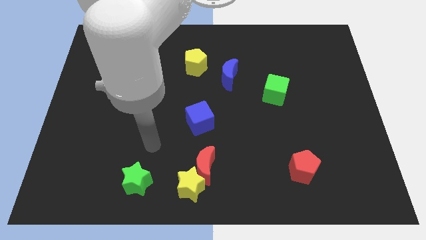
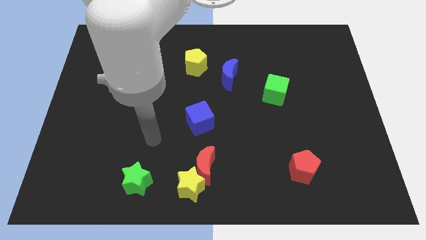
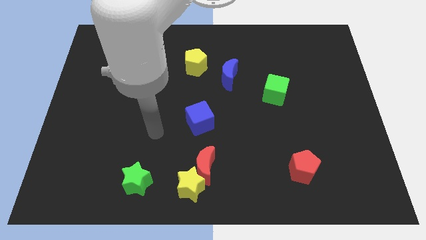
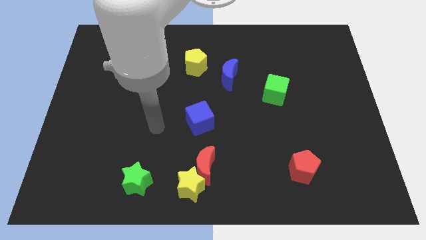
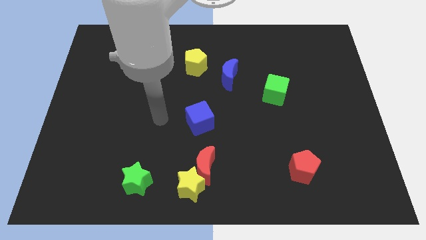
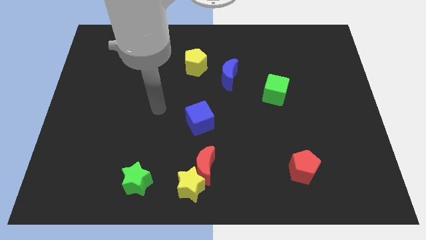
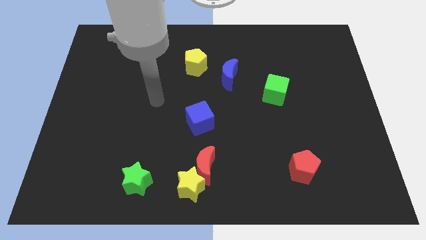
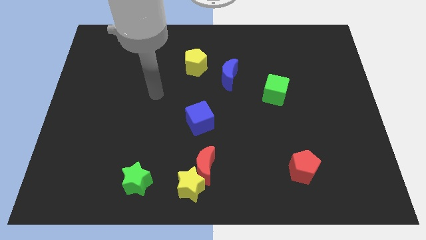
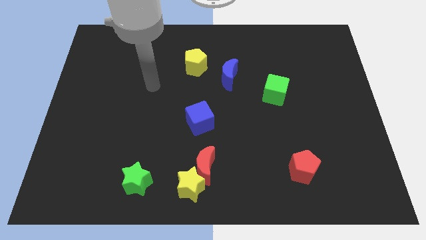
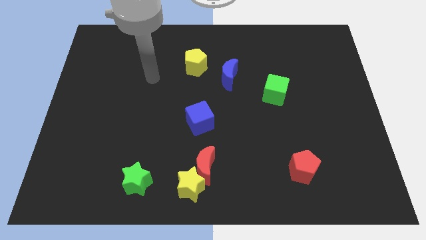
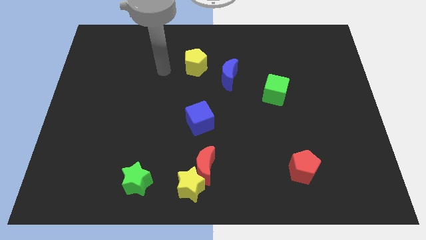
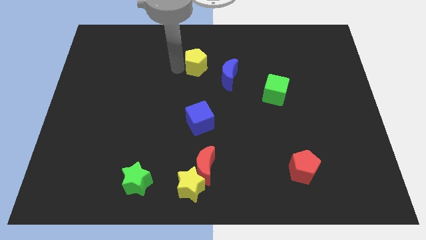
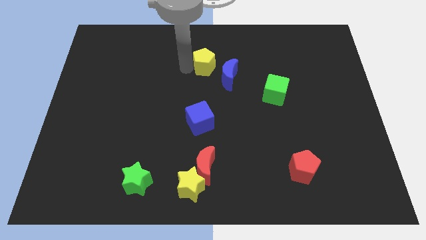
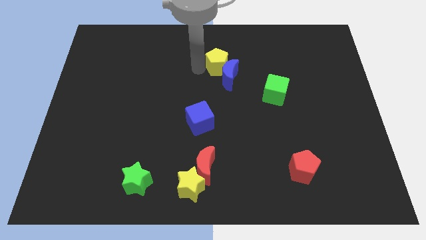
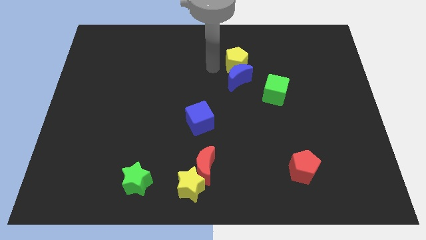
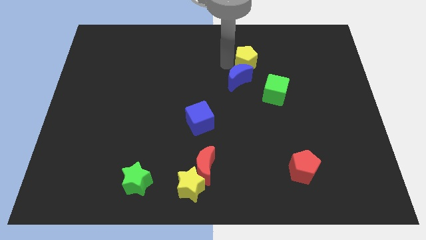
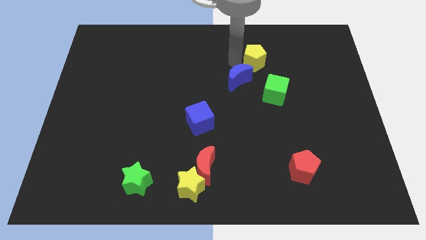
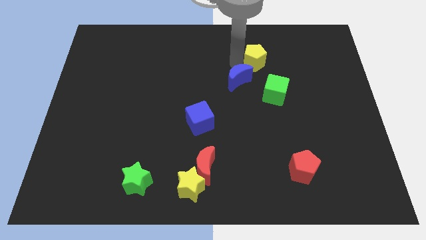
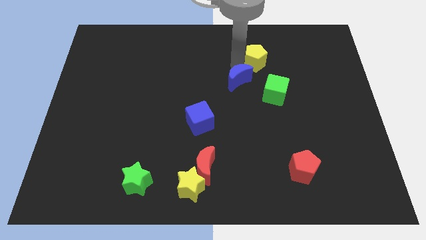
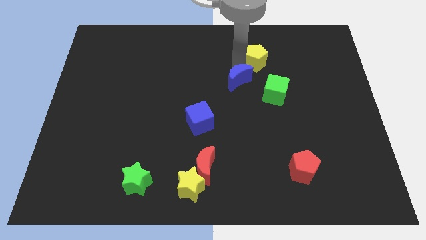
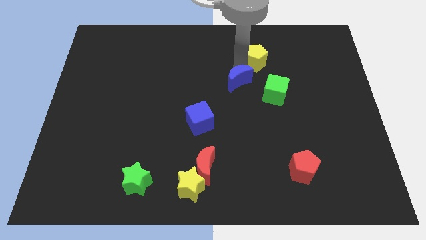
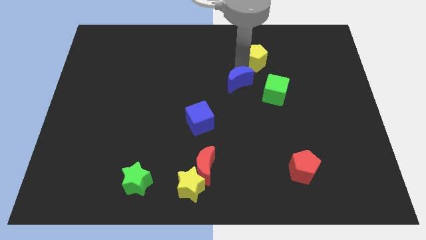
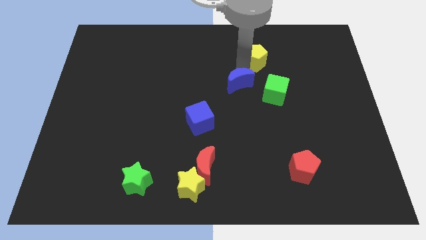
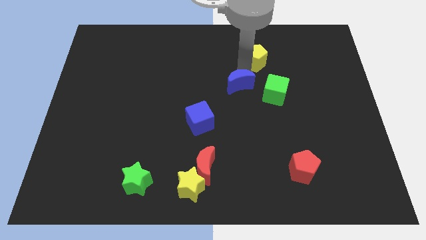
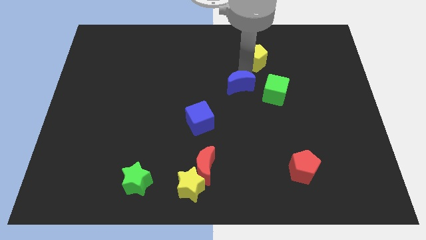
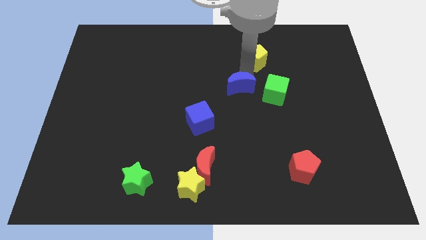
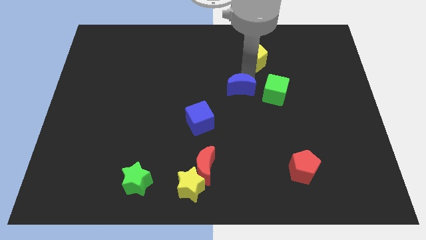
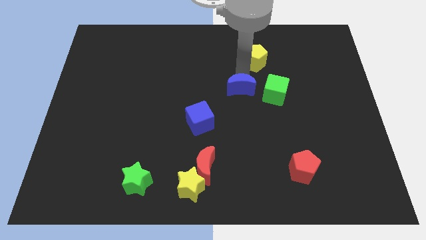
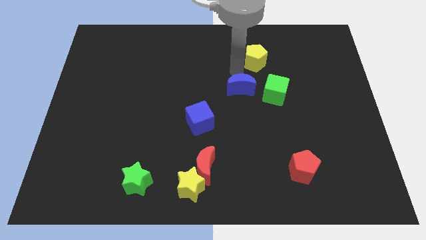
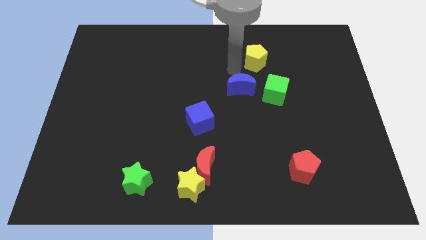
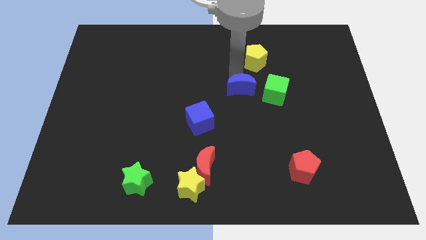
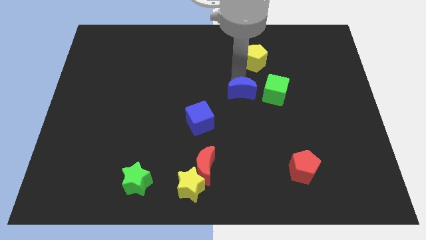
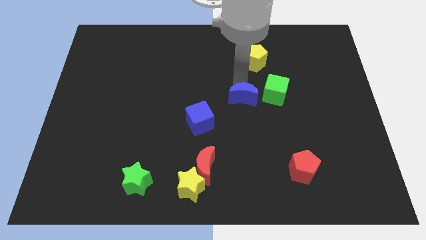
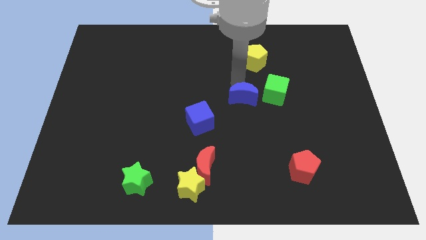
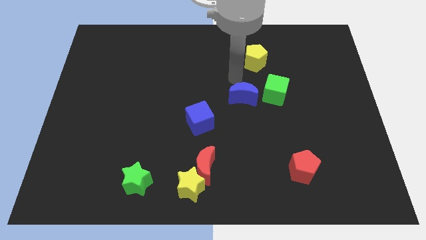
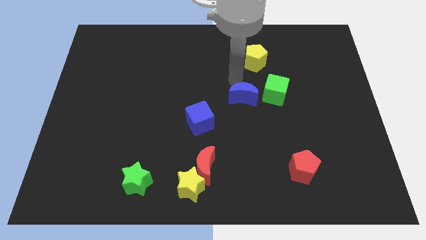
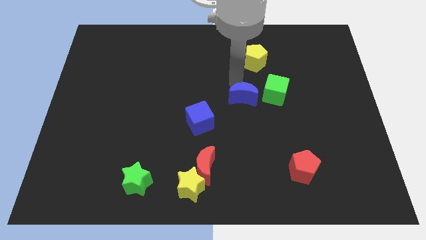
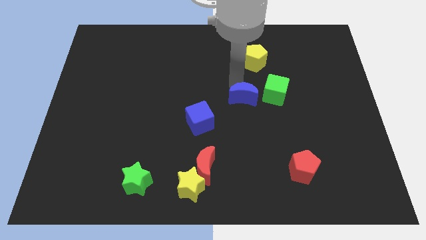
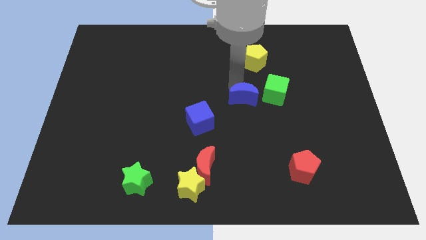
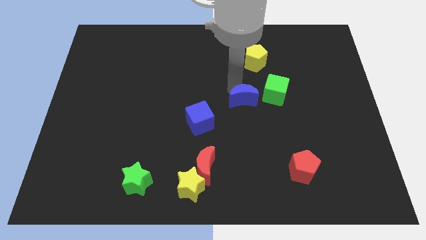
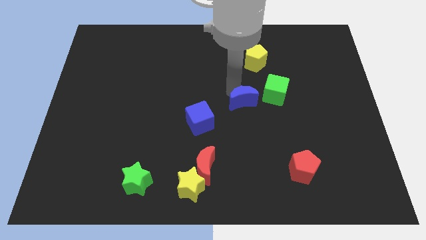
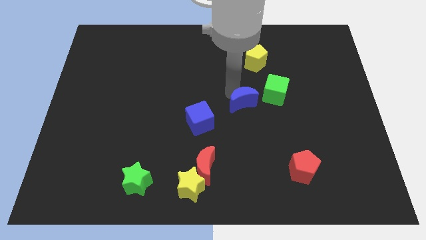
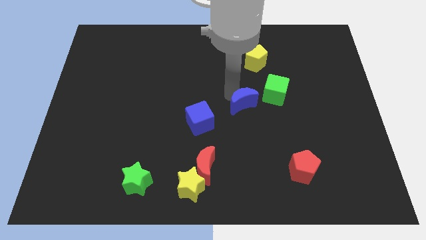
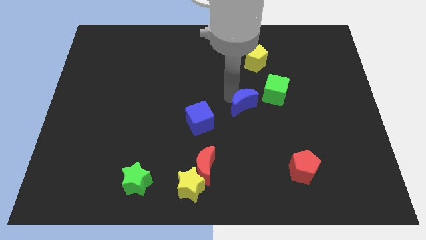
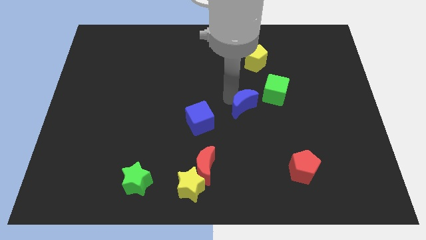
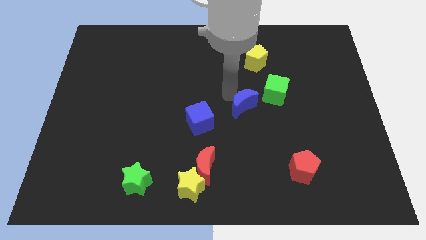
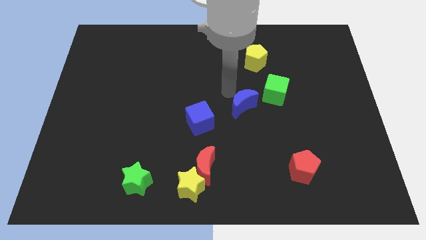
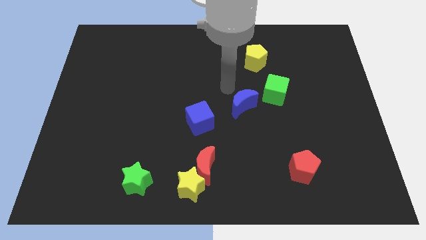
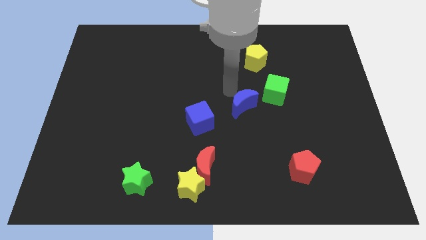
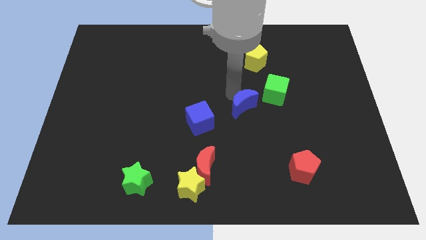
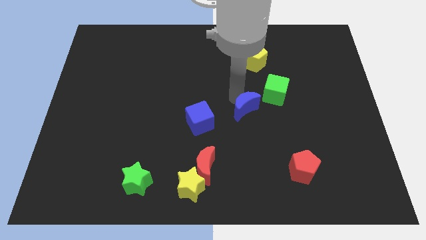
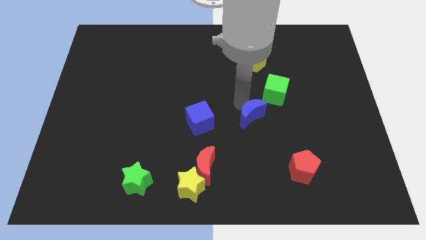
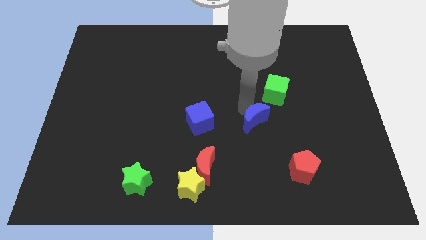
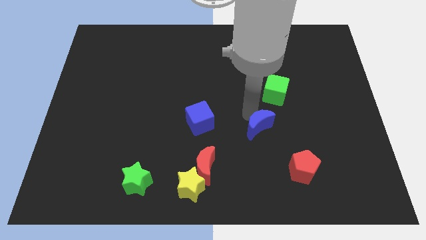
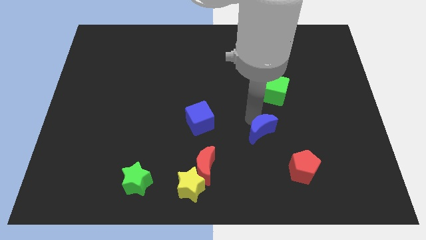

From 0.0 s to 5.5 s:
slide the blue moon to the top left of the red pentagon

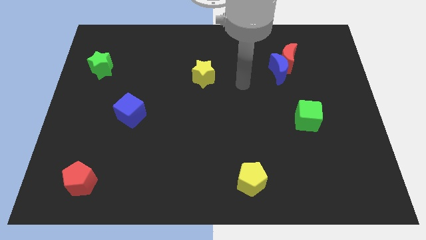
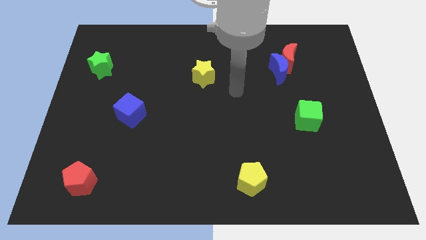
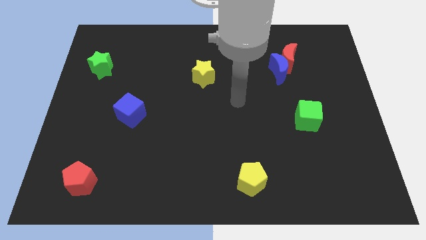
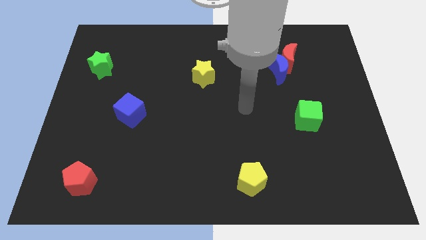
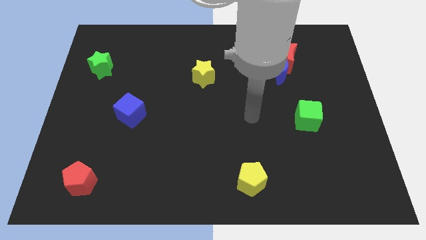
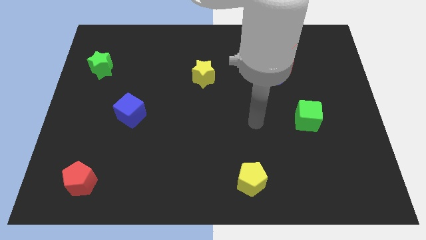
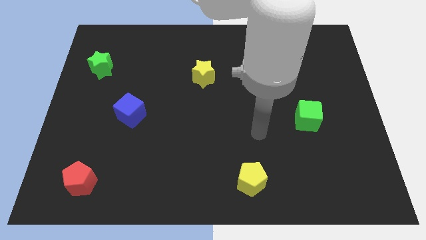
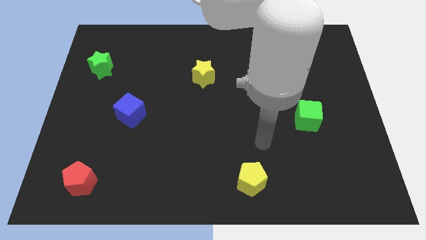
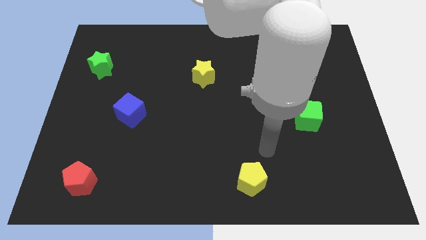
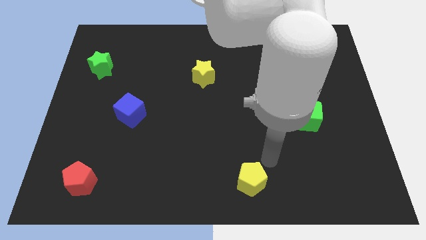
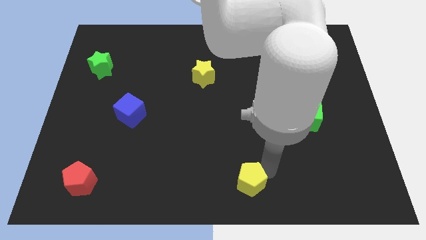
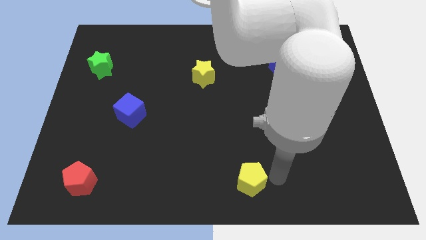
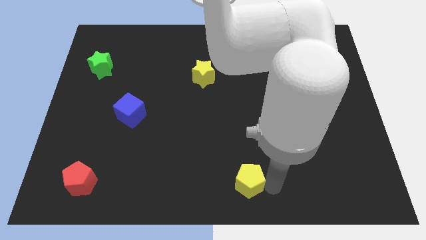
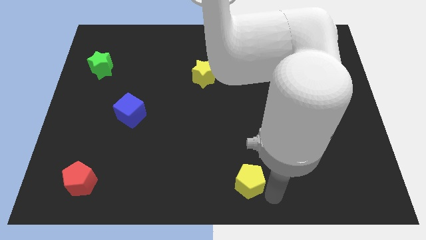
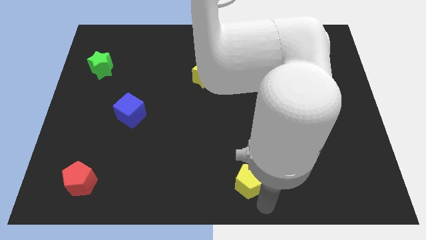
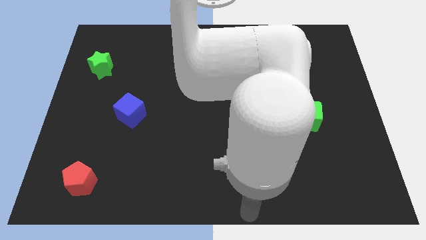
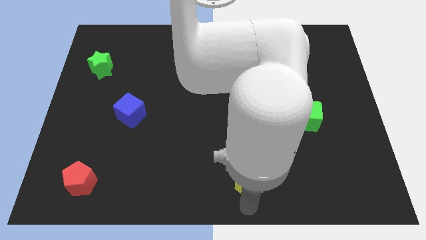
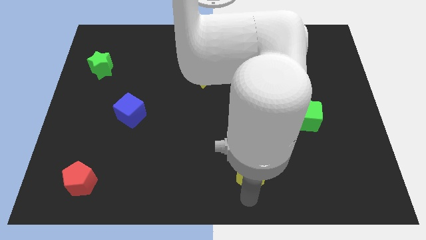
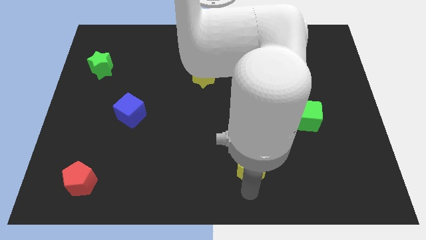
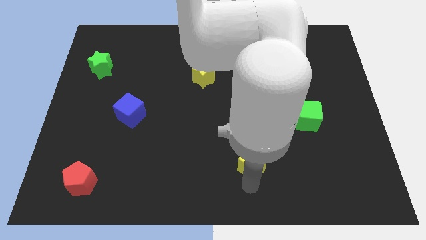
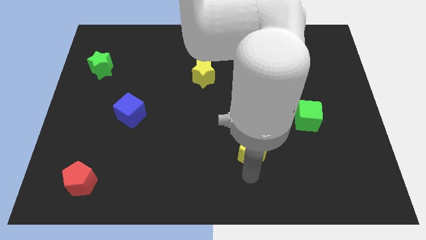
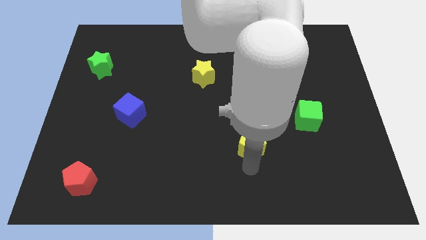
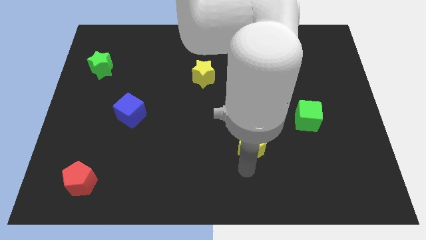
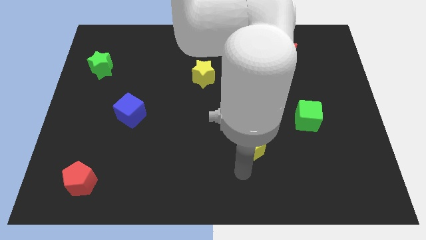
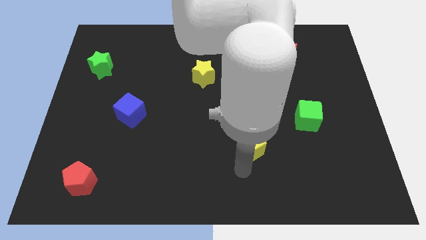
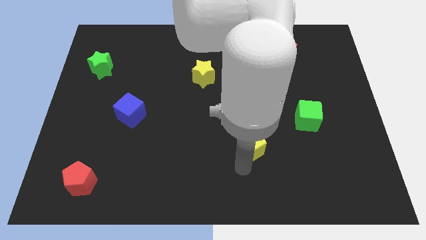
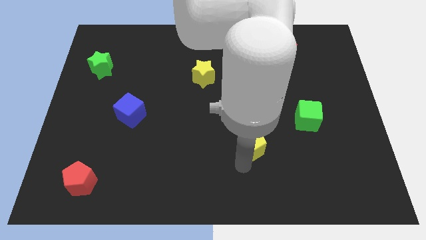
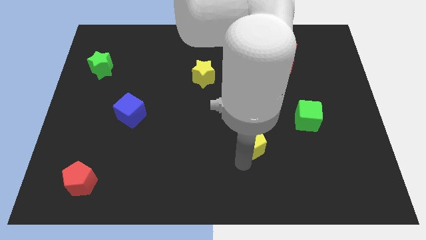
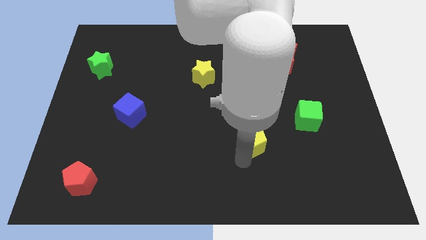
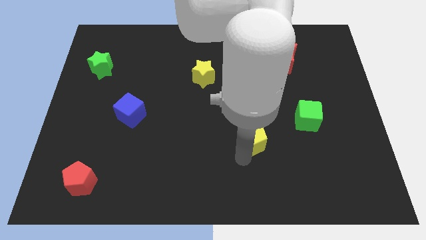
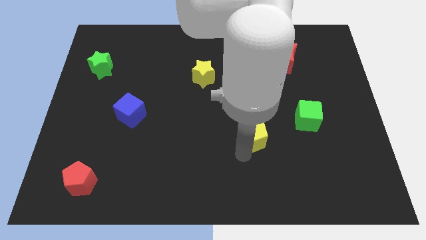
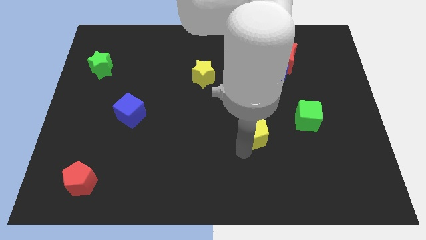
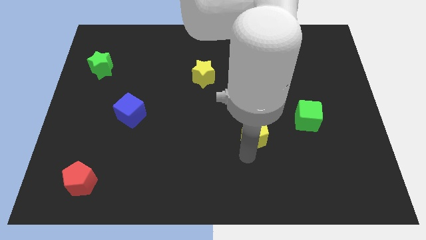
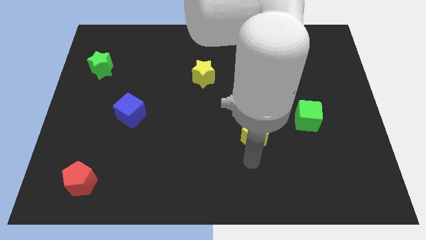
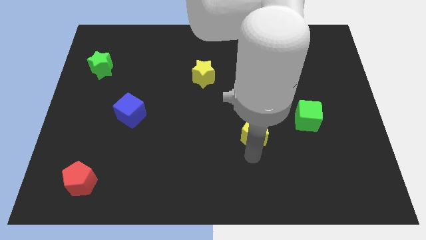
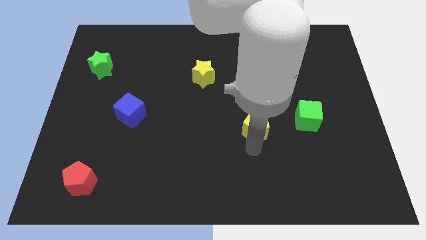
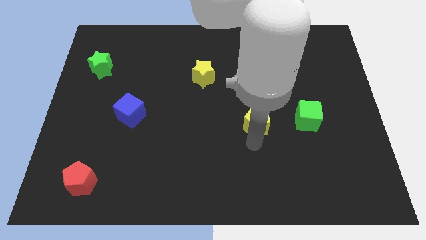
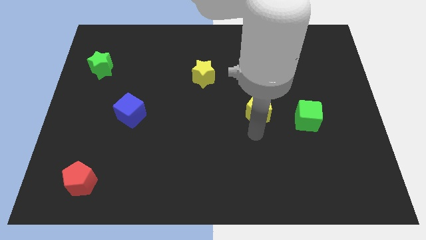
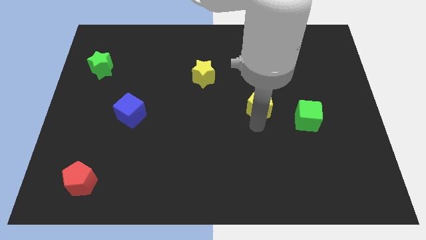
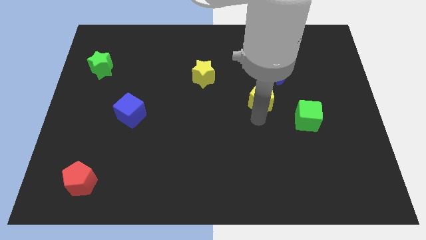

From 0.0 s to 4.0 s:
push the yellow pentagon to the bottom left of the blue moon
